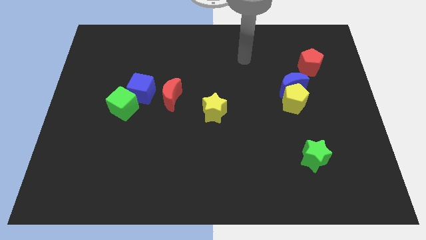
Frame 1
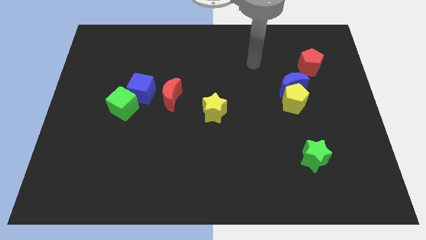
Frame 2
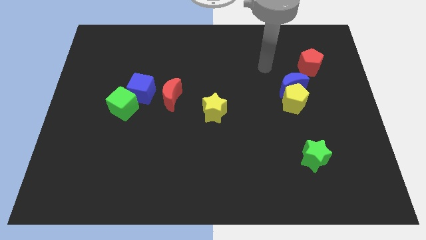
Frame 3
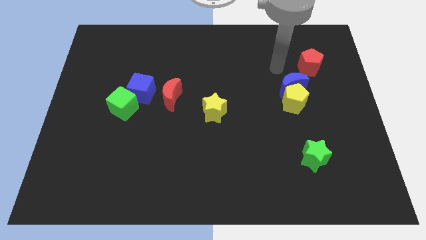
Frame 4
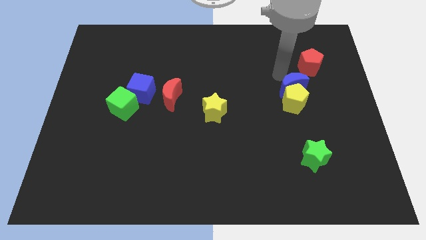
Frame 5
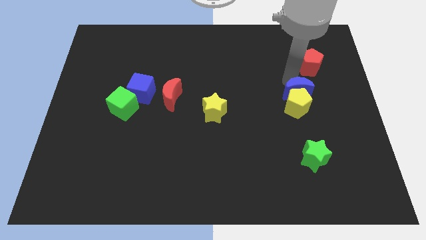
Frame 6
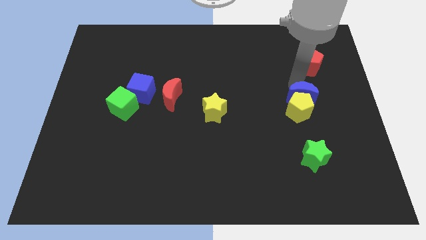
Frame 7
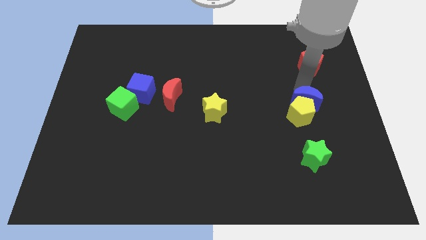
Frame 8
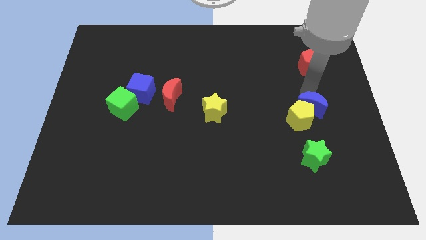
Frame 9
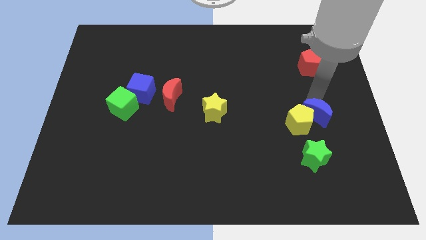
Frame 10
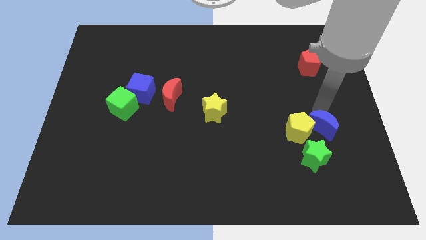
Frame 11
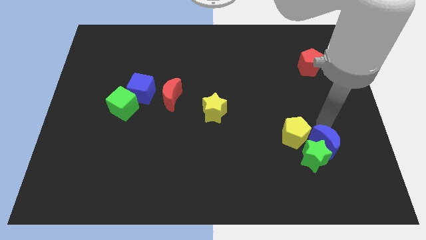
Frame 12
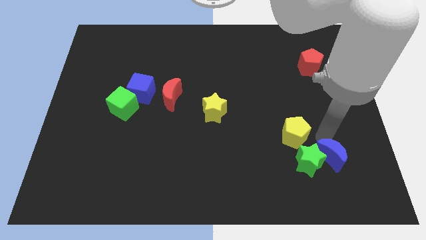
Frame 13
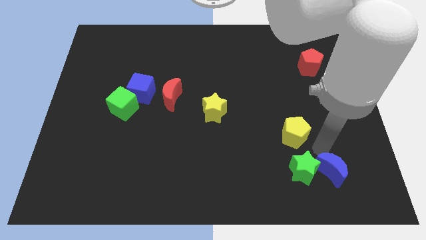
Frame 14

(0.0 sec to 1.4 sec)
separate the yellow pentagon from the blue moon

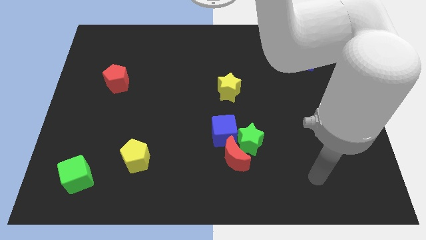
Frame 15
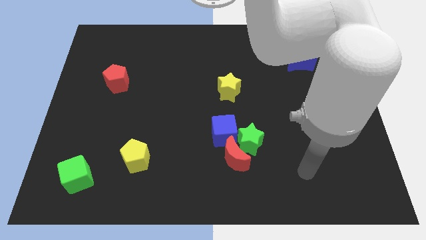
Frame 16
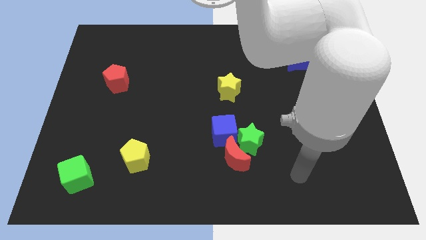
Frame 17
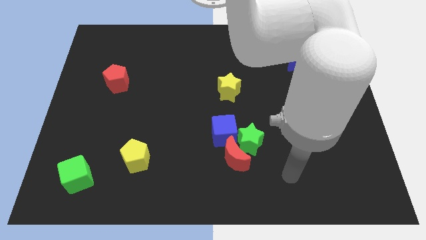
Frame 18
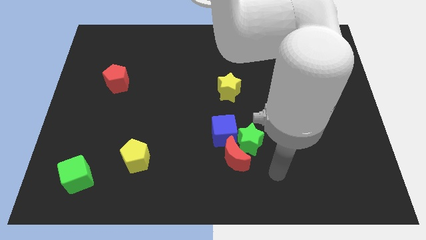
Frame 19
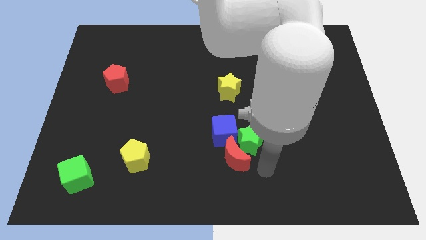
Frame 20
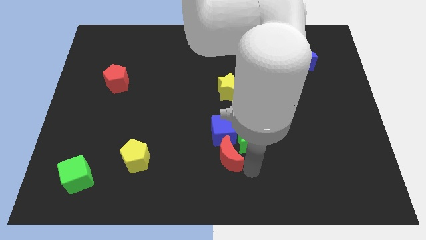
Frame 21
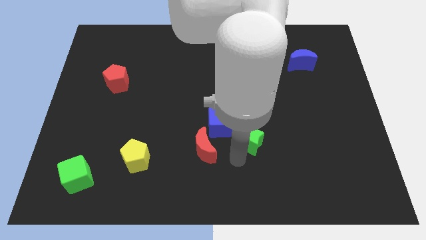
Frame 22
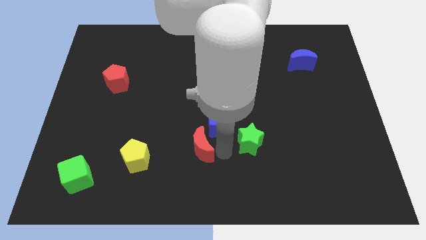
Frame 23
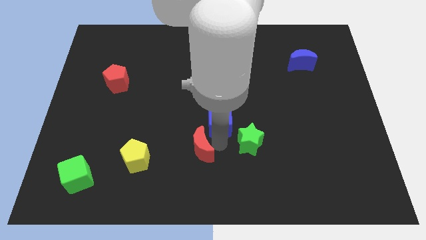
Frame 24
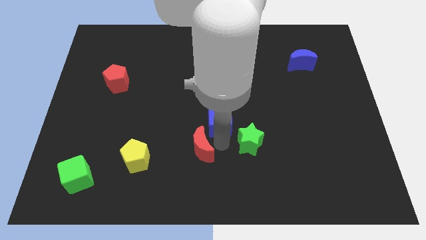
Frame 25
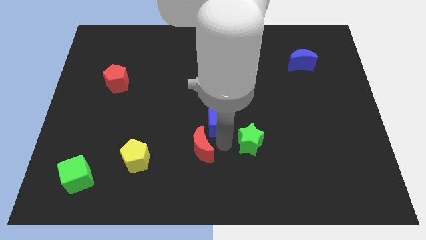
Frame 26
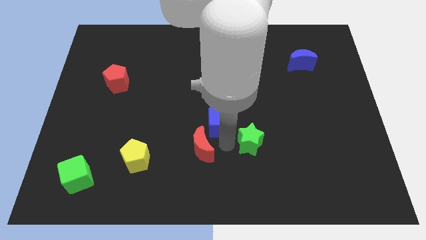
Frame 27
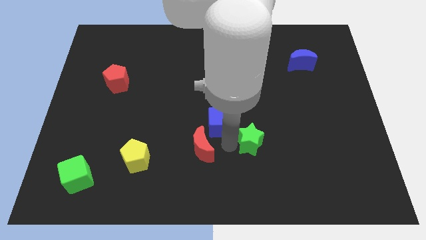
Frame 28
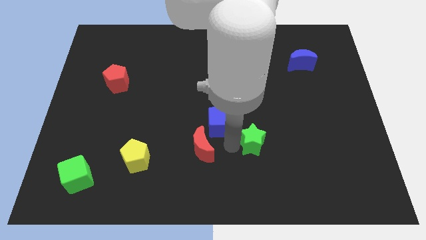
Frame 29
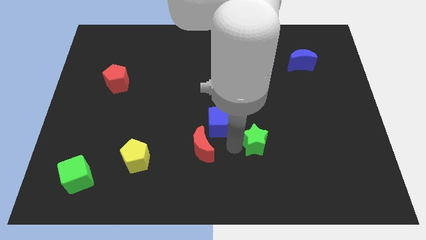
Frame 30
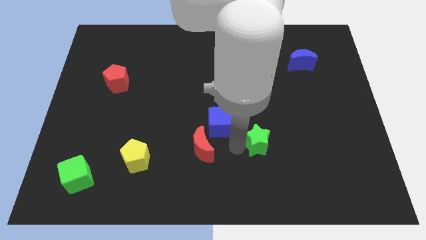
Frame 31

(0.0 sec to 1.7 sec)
move the green star away from the red moon and blue cube

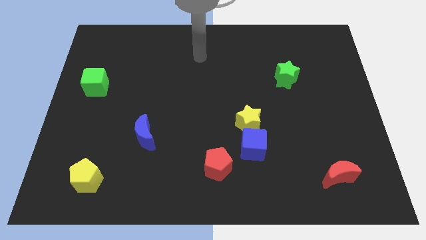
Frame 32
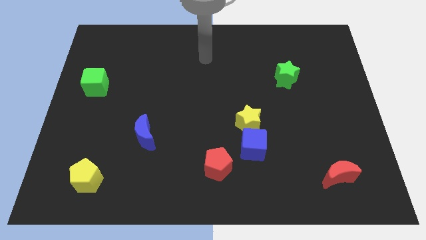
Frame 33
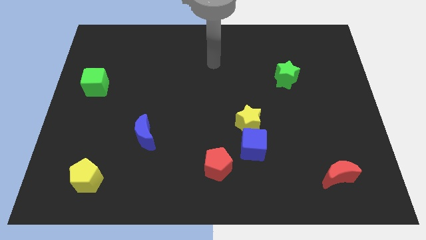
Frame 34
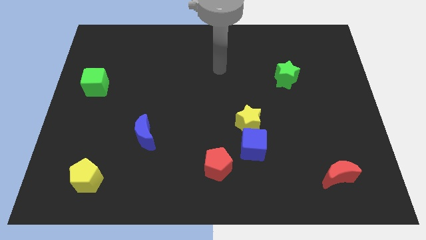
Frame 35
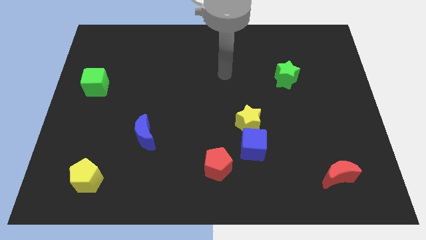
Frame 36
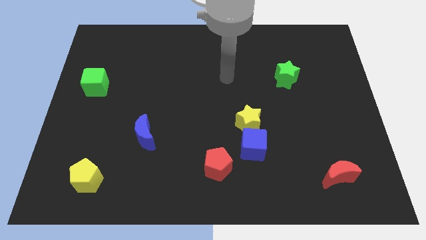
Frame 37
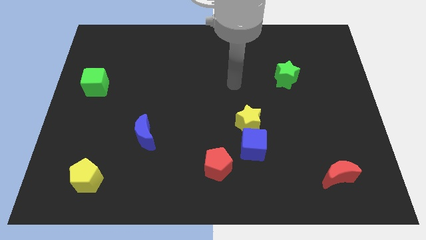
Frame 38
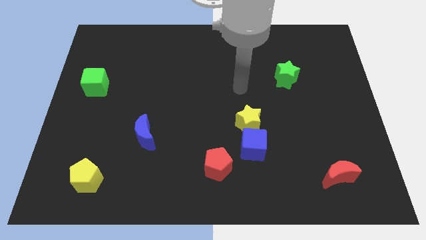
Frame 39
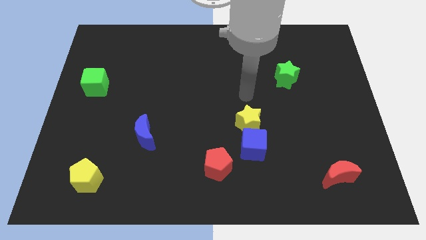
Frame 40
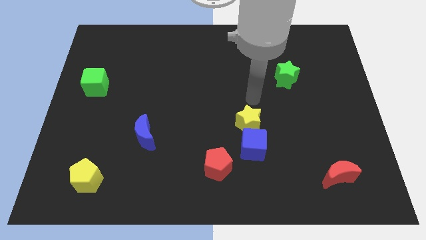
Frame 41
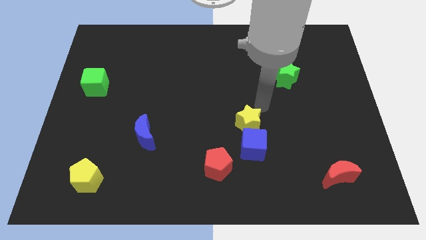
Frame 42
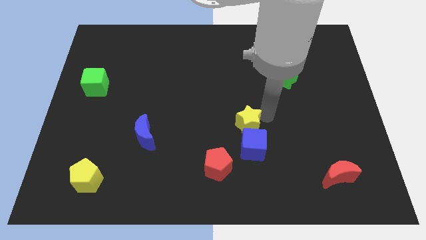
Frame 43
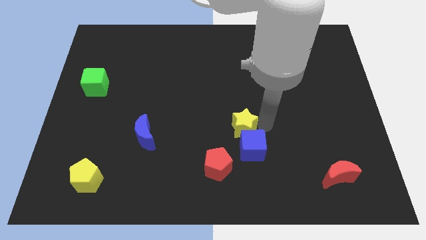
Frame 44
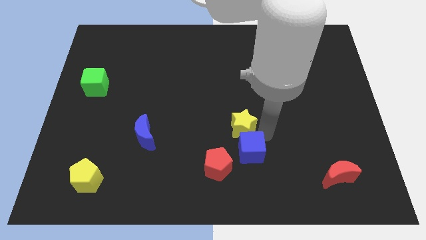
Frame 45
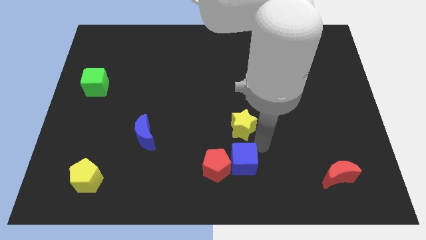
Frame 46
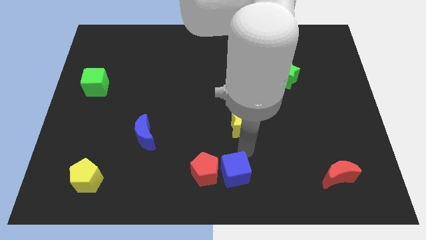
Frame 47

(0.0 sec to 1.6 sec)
move the yellow star away from the blue cube

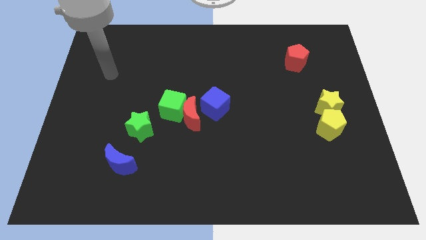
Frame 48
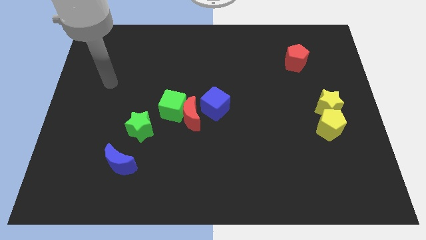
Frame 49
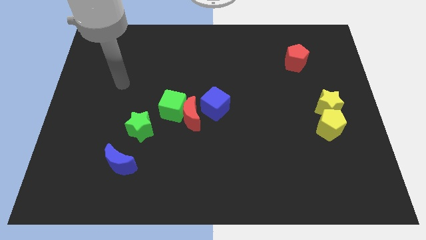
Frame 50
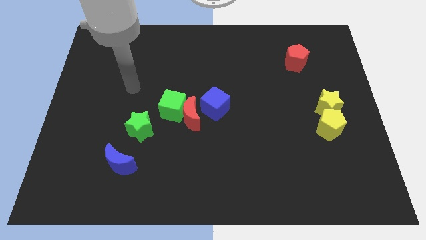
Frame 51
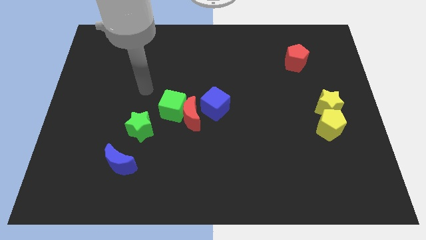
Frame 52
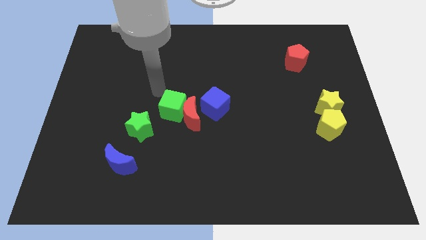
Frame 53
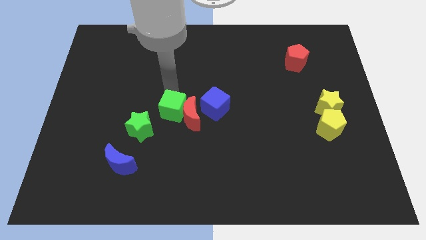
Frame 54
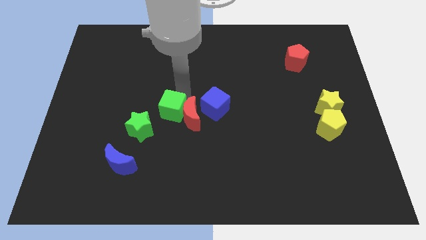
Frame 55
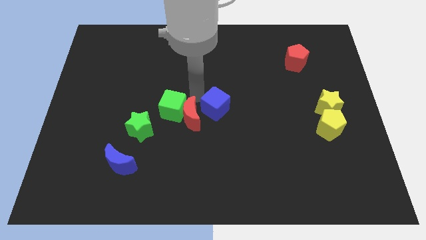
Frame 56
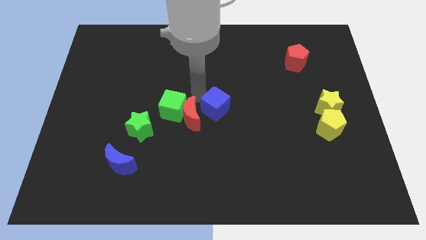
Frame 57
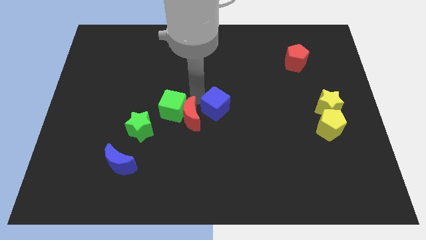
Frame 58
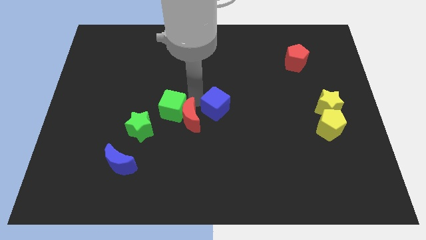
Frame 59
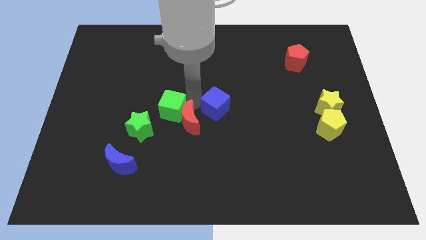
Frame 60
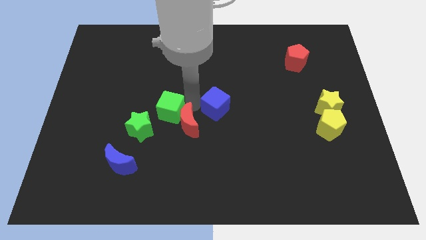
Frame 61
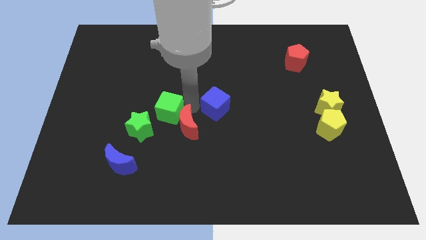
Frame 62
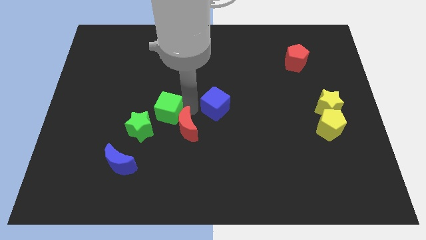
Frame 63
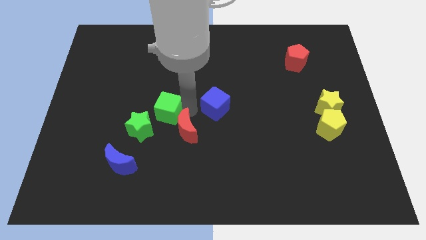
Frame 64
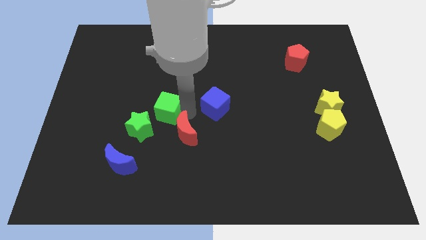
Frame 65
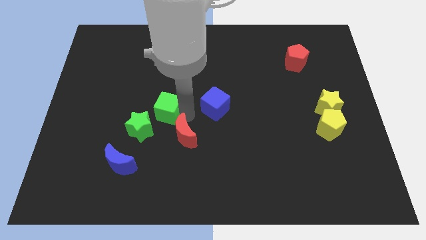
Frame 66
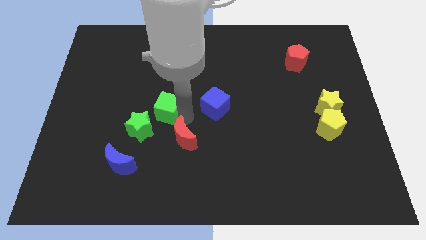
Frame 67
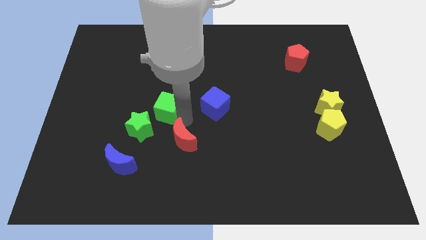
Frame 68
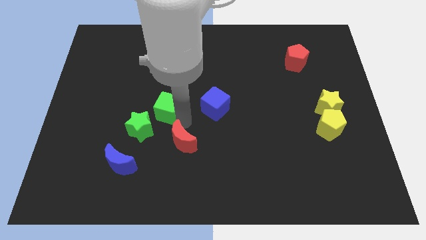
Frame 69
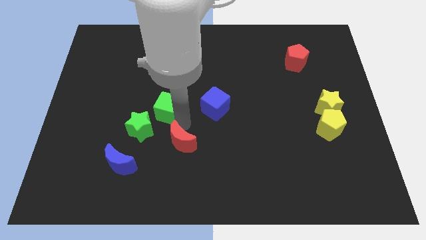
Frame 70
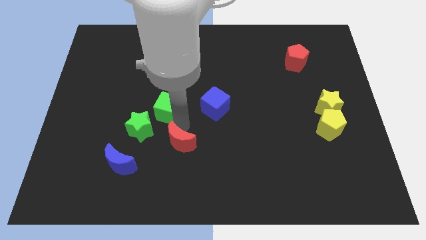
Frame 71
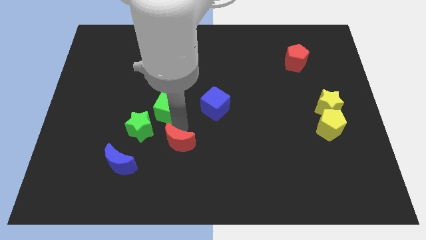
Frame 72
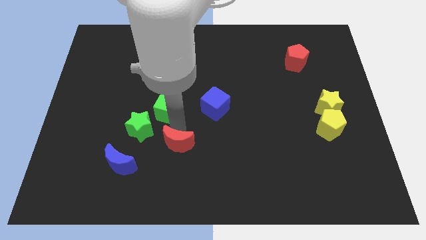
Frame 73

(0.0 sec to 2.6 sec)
separate the red moon from the green cube and blue cube

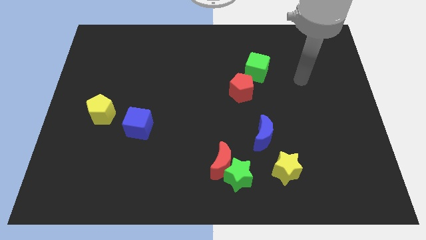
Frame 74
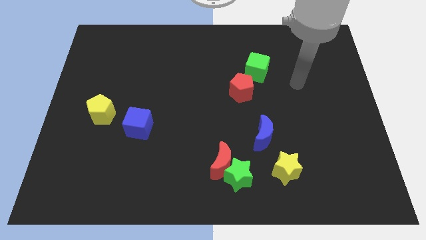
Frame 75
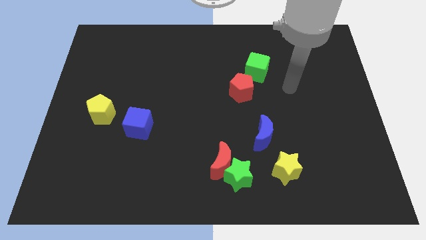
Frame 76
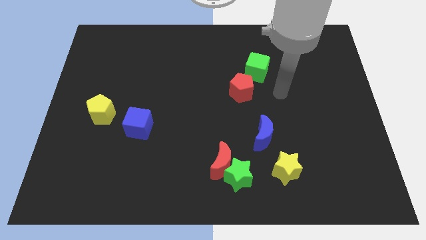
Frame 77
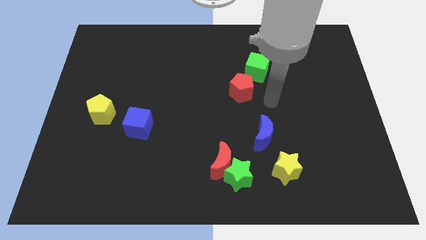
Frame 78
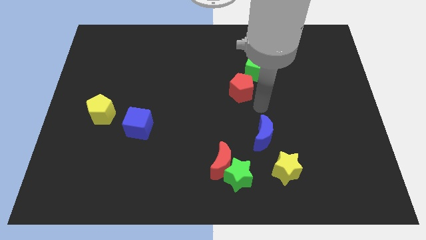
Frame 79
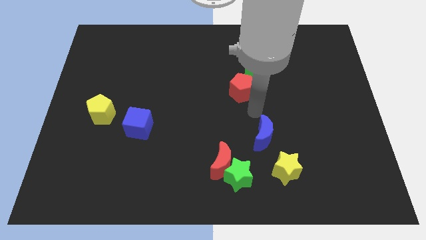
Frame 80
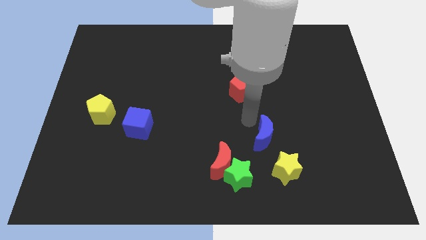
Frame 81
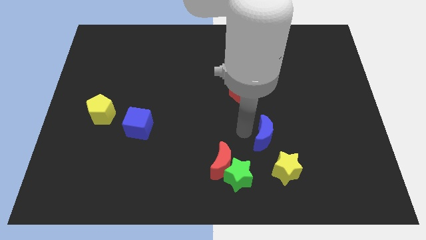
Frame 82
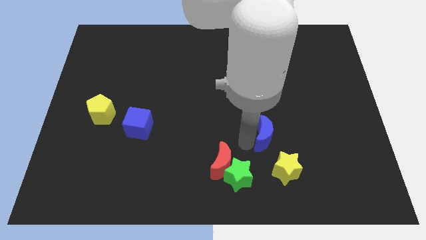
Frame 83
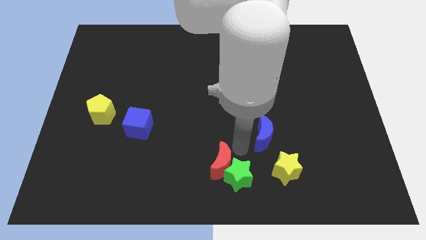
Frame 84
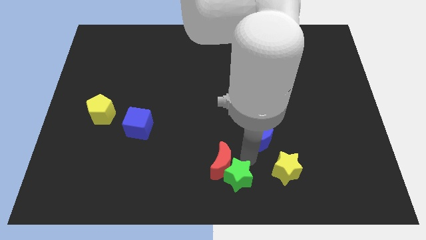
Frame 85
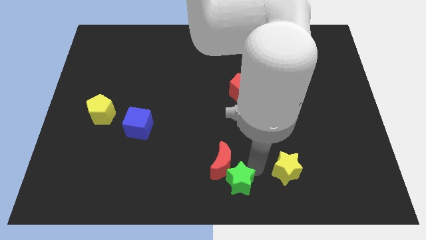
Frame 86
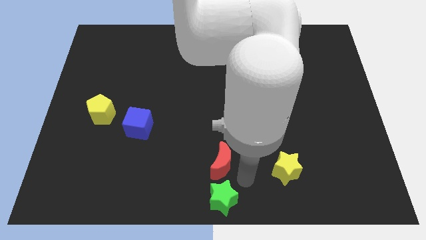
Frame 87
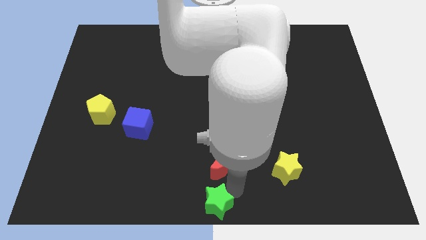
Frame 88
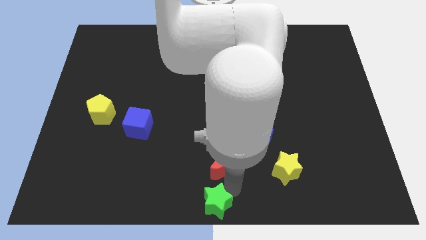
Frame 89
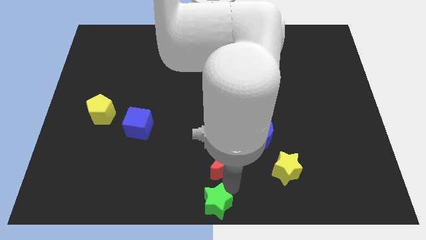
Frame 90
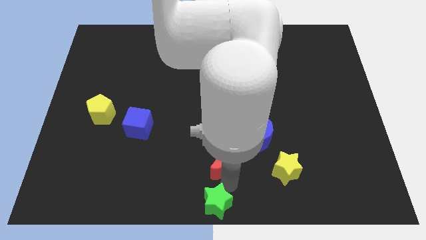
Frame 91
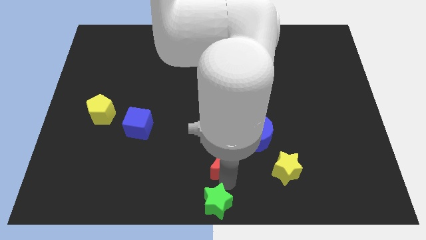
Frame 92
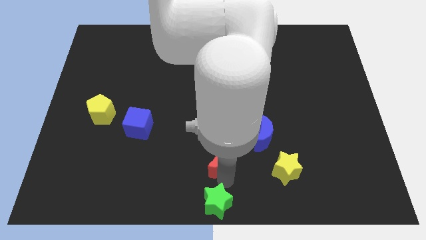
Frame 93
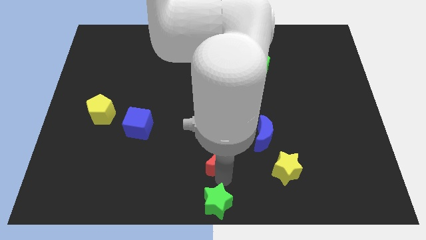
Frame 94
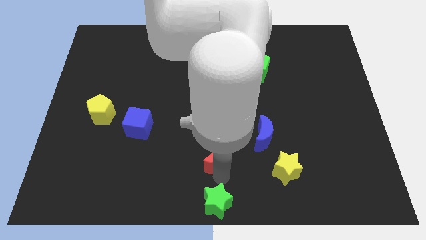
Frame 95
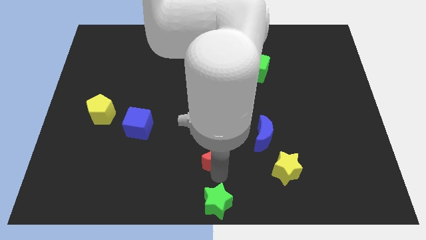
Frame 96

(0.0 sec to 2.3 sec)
separate the red moon from the green star
